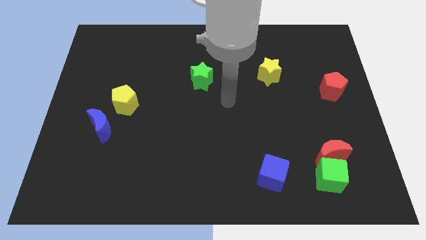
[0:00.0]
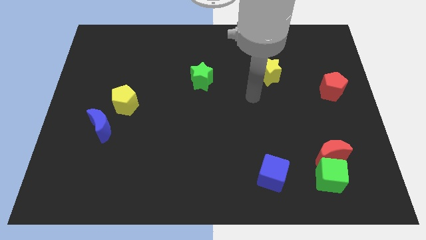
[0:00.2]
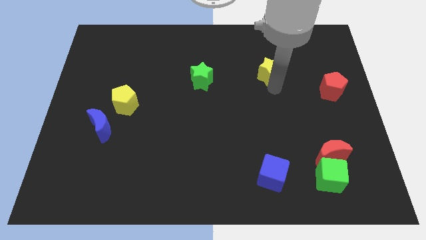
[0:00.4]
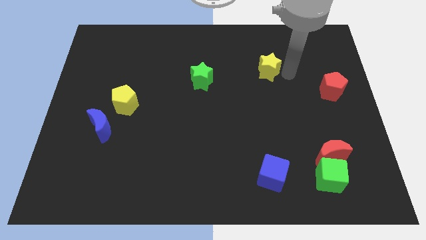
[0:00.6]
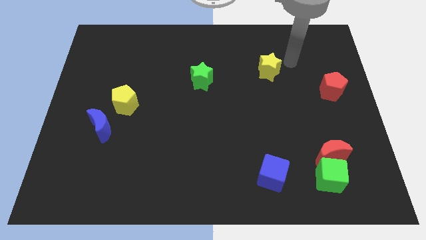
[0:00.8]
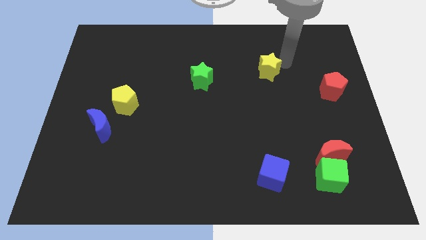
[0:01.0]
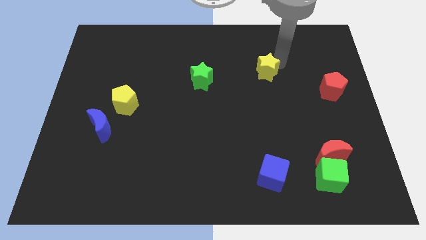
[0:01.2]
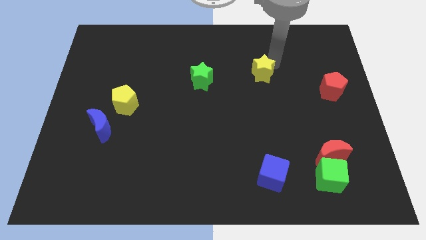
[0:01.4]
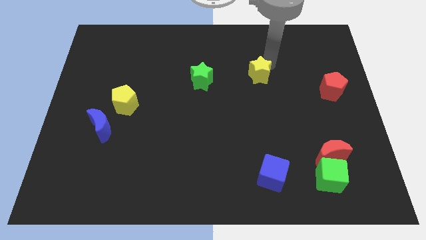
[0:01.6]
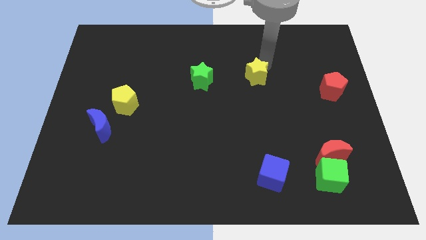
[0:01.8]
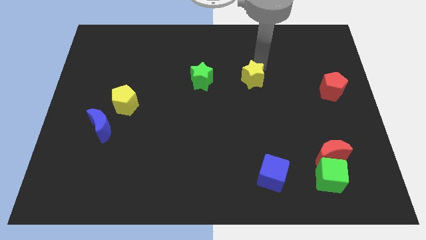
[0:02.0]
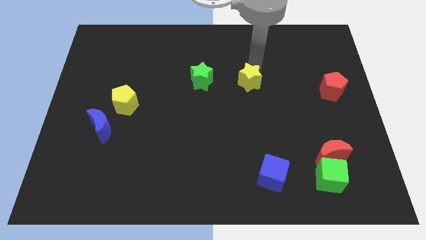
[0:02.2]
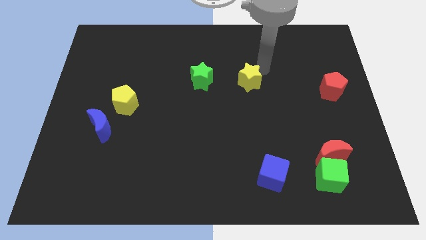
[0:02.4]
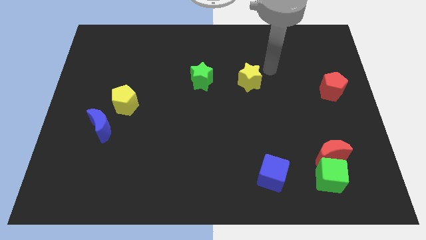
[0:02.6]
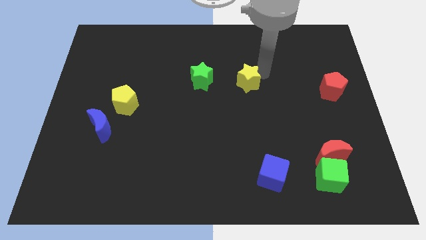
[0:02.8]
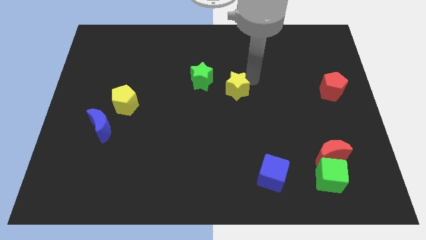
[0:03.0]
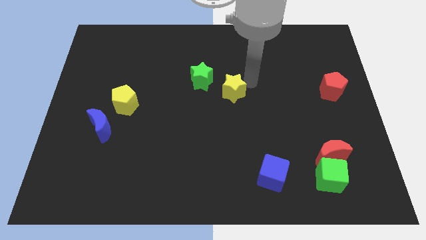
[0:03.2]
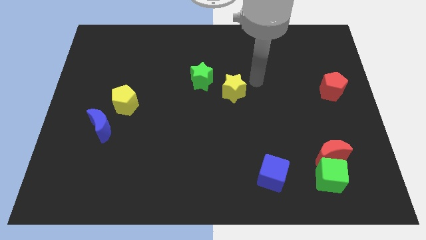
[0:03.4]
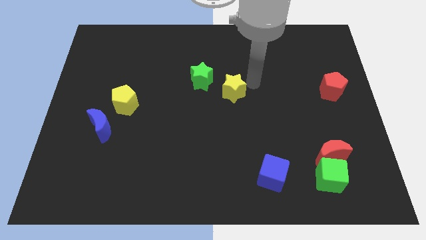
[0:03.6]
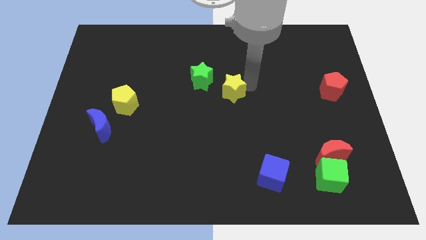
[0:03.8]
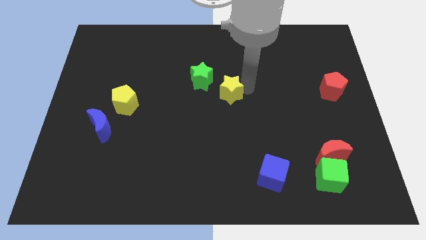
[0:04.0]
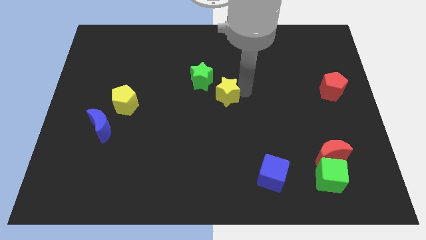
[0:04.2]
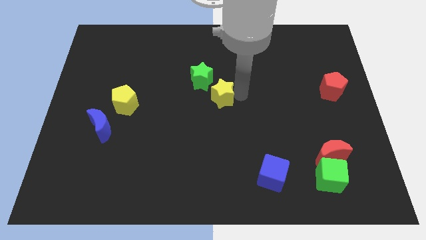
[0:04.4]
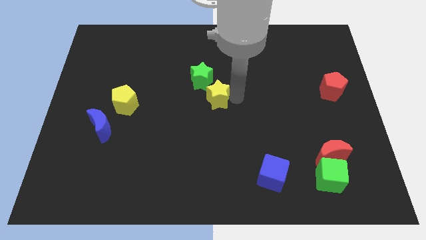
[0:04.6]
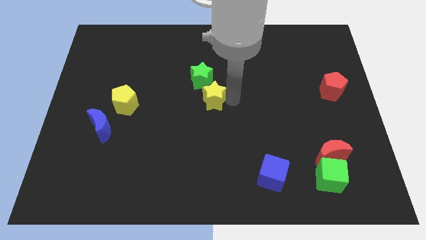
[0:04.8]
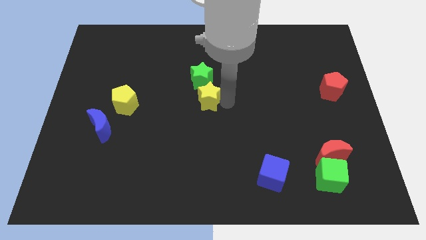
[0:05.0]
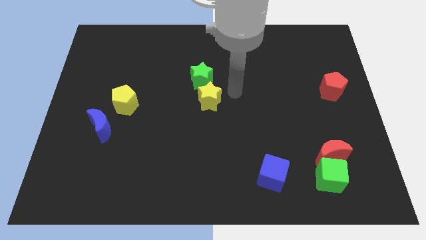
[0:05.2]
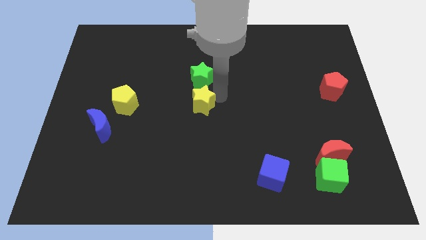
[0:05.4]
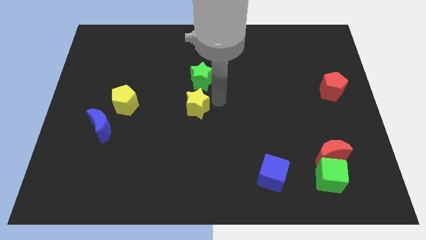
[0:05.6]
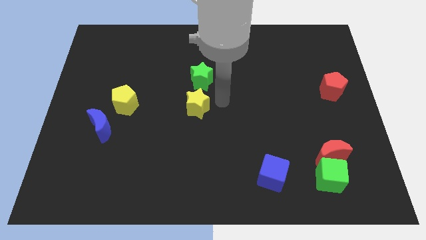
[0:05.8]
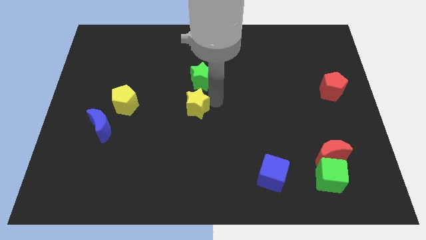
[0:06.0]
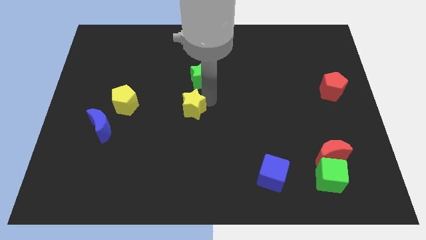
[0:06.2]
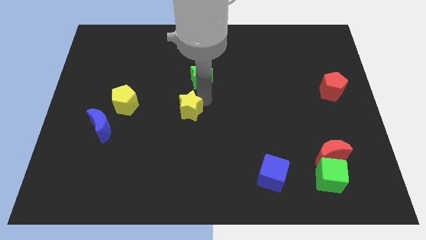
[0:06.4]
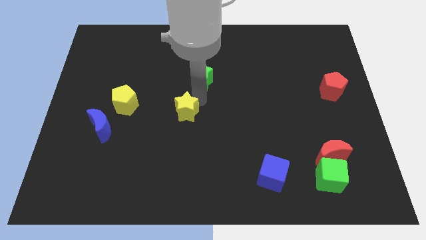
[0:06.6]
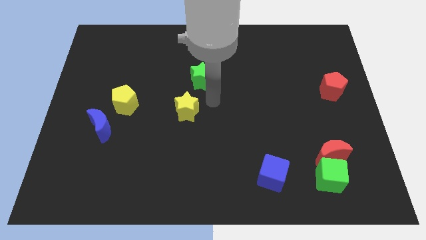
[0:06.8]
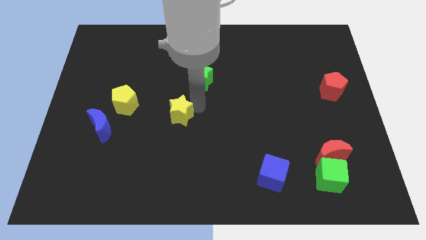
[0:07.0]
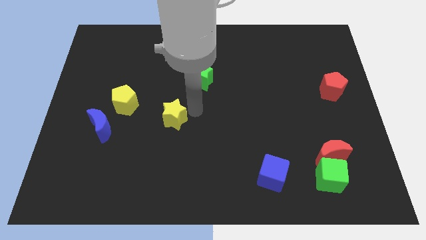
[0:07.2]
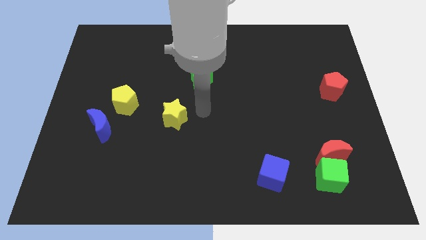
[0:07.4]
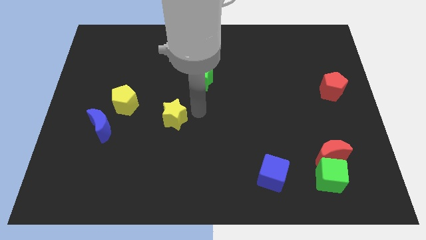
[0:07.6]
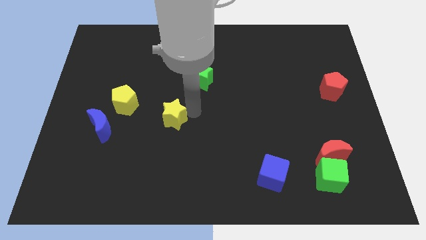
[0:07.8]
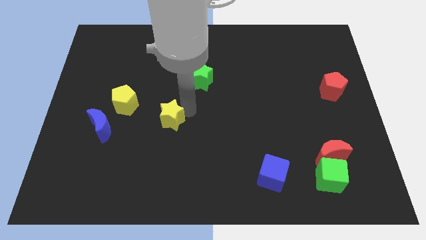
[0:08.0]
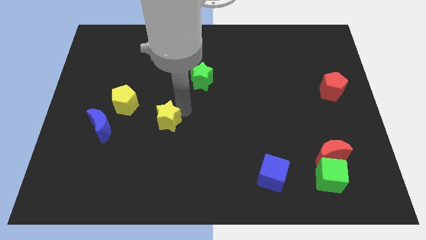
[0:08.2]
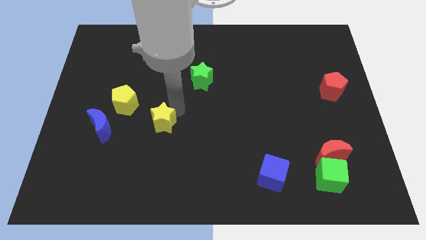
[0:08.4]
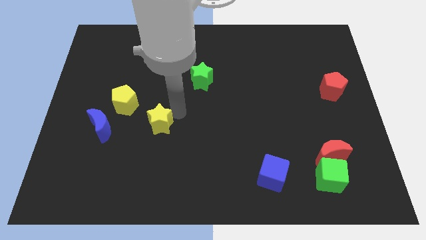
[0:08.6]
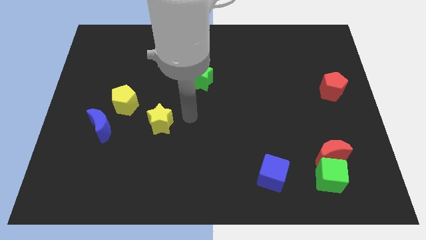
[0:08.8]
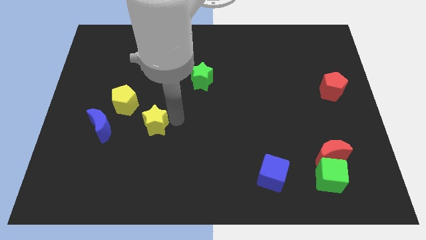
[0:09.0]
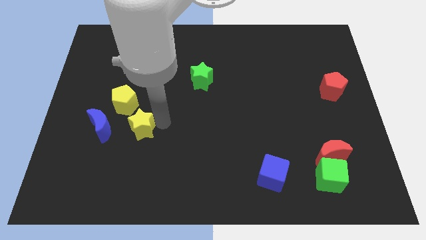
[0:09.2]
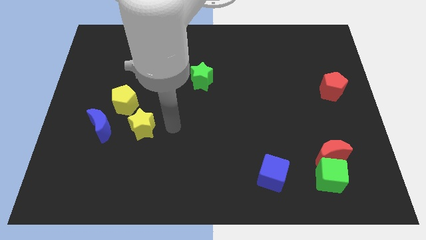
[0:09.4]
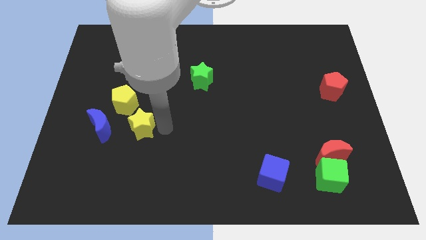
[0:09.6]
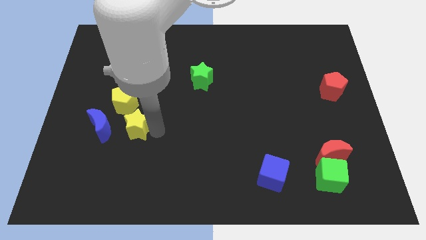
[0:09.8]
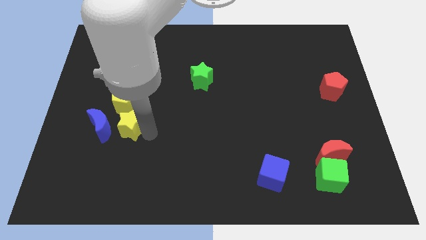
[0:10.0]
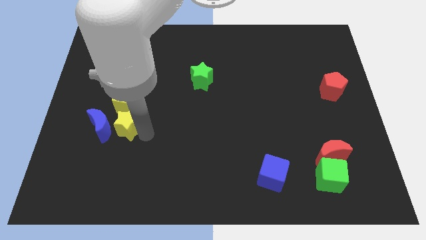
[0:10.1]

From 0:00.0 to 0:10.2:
put the yellow star next to the blue moon

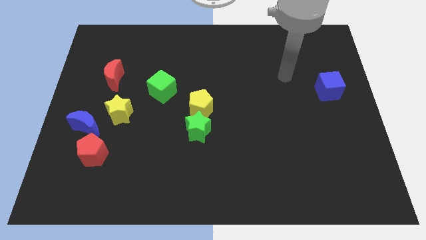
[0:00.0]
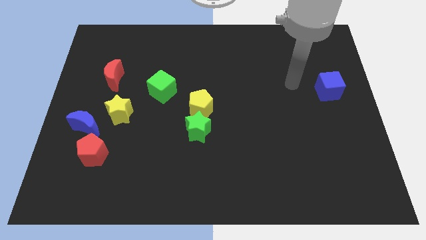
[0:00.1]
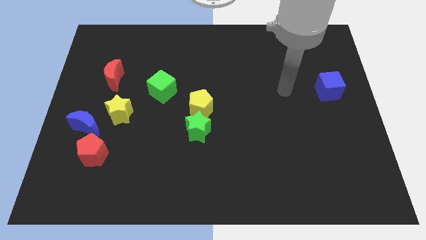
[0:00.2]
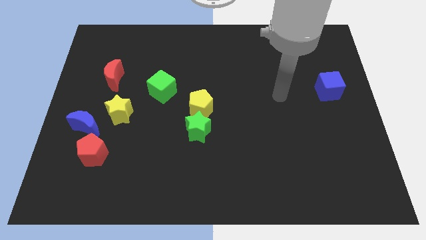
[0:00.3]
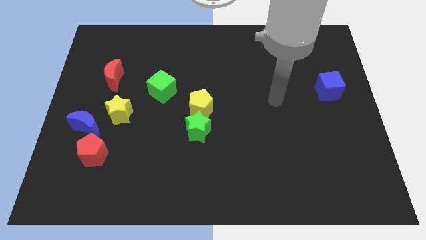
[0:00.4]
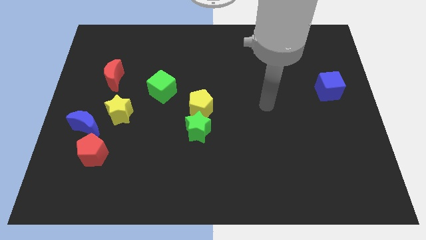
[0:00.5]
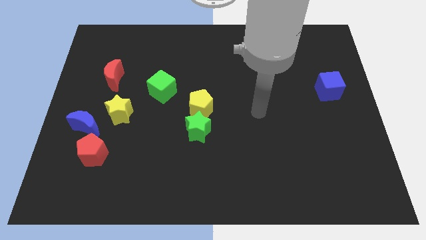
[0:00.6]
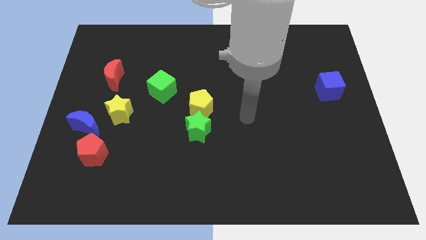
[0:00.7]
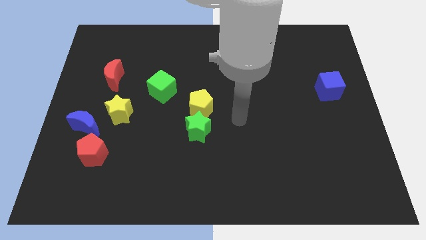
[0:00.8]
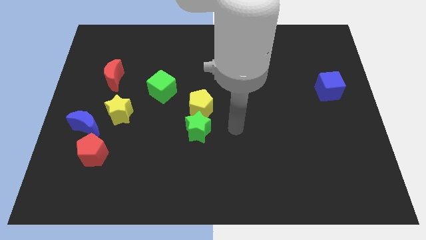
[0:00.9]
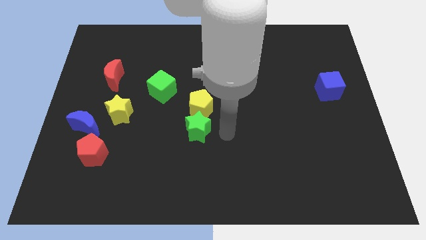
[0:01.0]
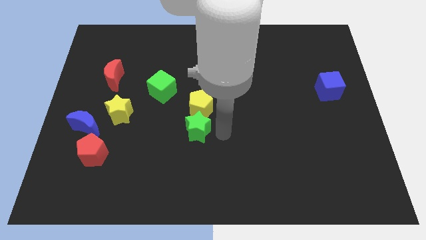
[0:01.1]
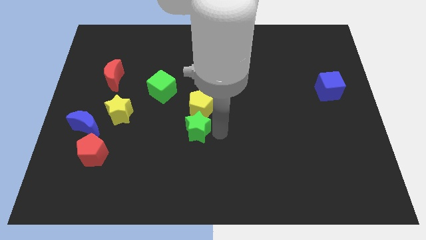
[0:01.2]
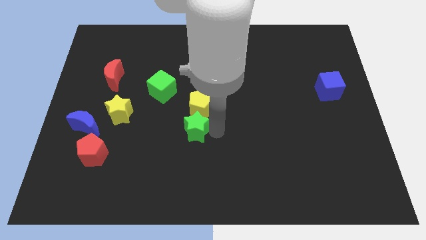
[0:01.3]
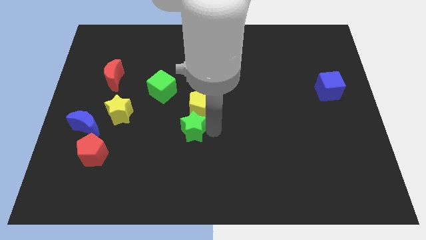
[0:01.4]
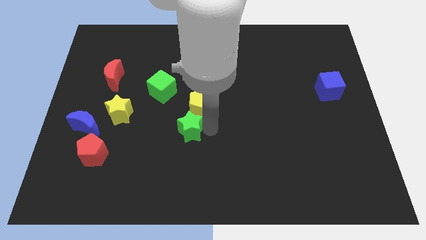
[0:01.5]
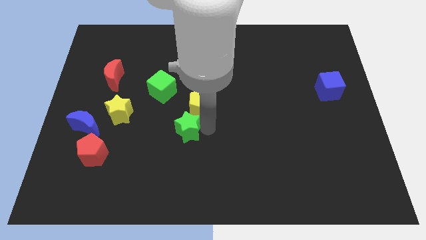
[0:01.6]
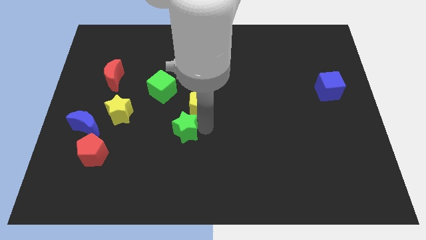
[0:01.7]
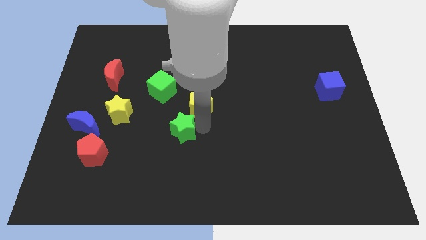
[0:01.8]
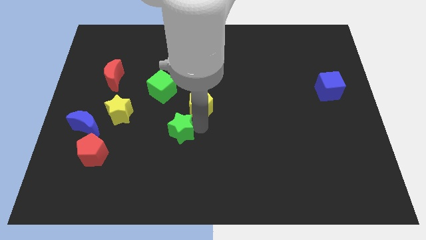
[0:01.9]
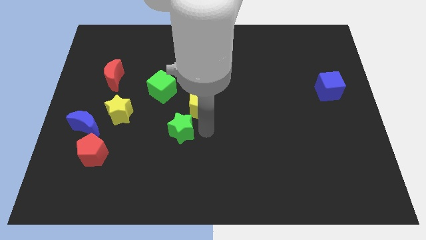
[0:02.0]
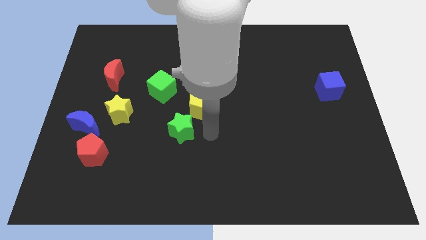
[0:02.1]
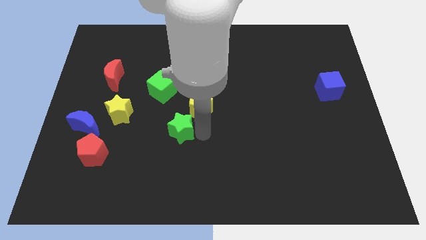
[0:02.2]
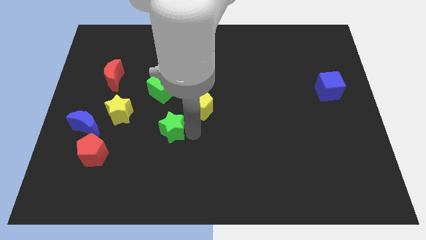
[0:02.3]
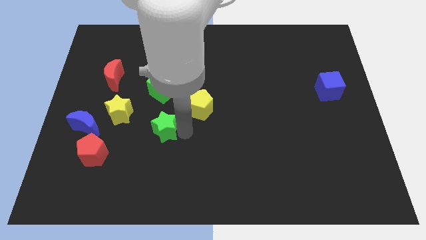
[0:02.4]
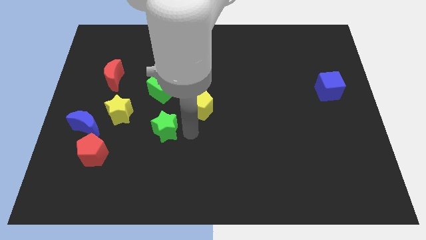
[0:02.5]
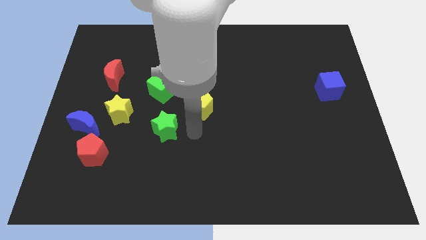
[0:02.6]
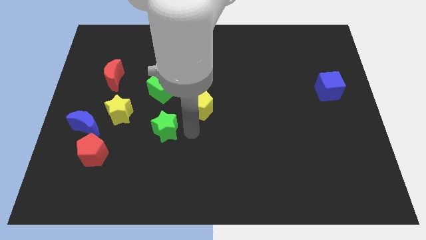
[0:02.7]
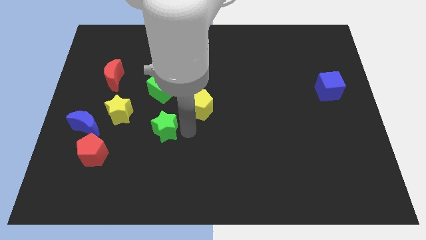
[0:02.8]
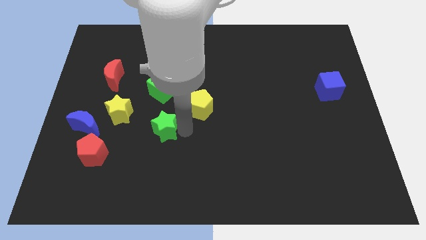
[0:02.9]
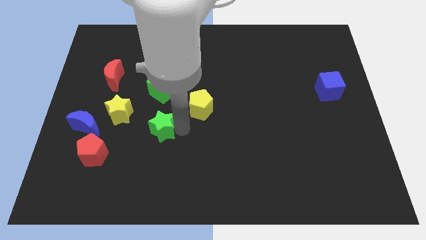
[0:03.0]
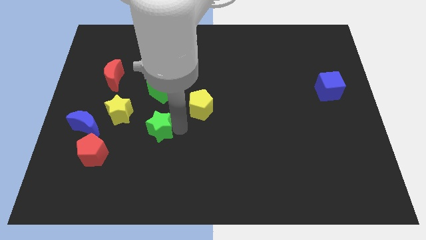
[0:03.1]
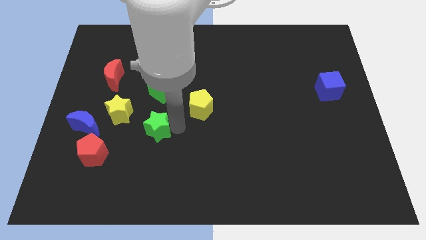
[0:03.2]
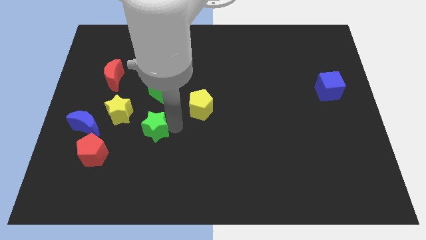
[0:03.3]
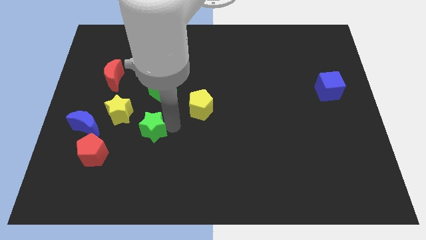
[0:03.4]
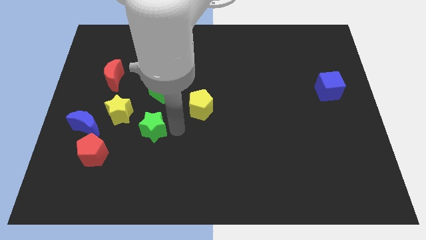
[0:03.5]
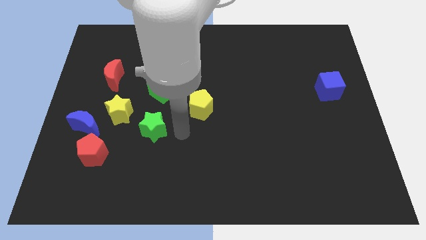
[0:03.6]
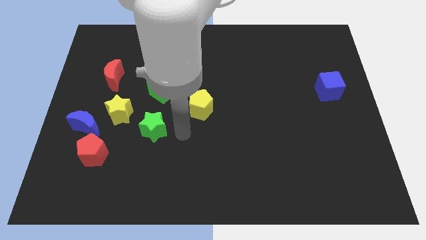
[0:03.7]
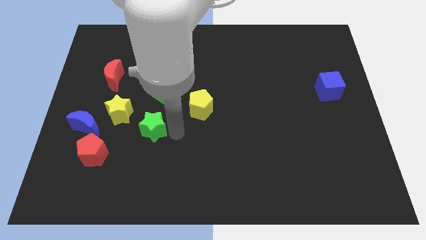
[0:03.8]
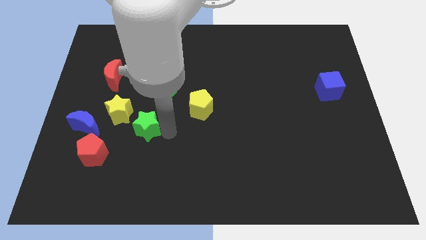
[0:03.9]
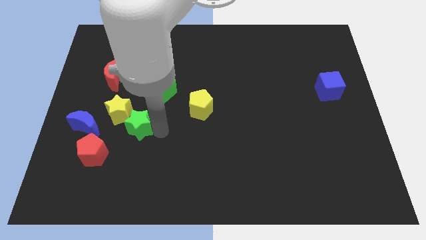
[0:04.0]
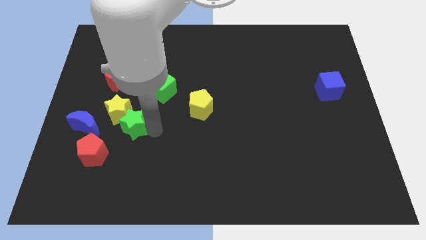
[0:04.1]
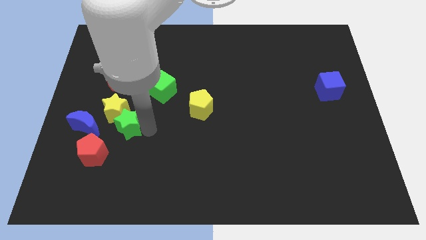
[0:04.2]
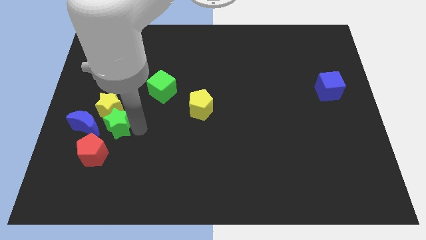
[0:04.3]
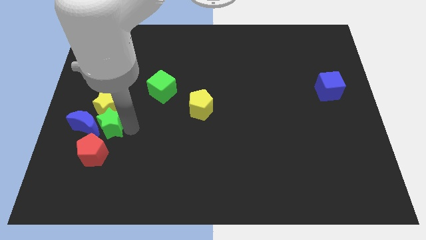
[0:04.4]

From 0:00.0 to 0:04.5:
move the green star next to the blue moon
